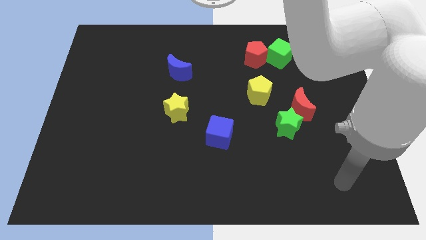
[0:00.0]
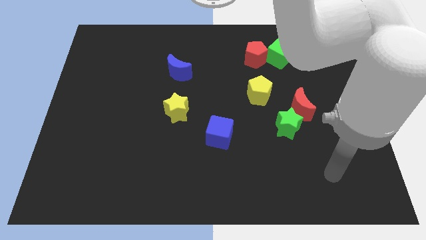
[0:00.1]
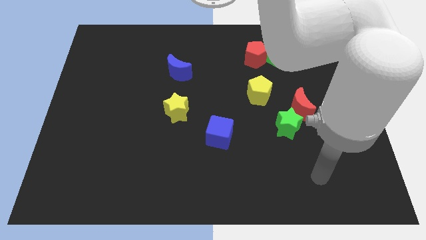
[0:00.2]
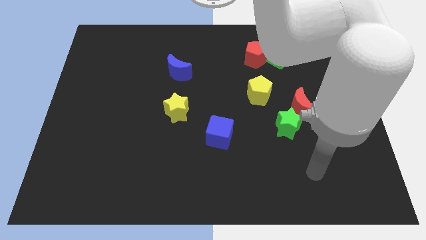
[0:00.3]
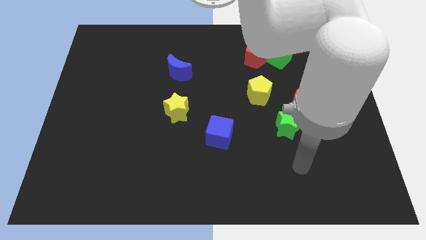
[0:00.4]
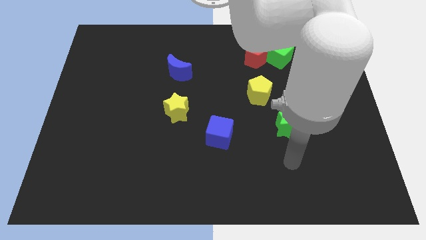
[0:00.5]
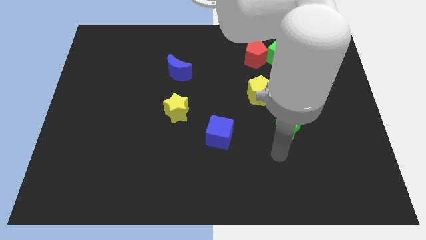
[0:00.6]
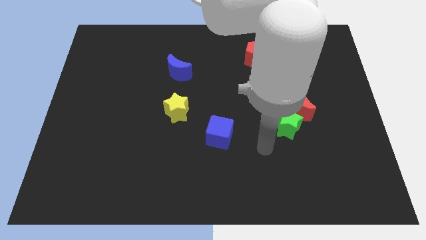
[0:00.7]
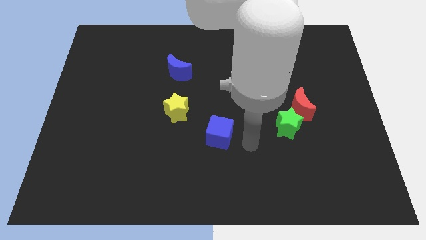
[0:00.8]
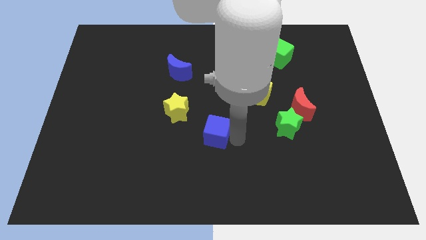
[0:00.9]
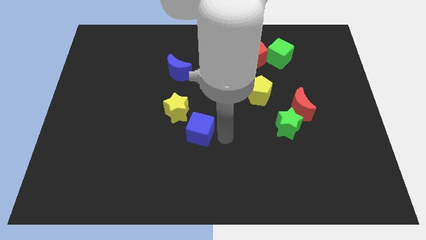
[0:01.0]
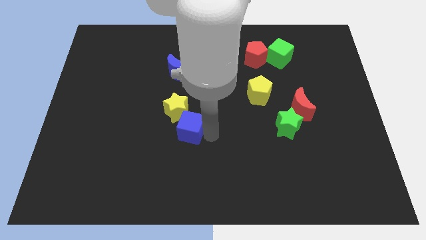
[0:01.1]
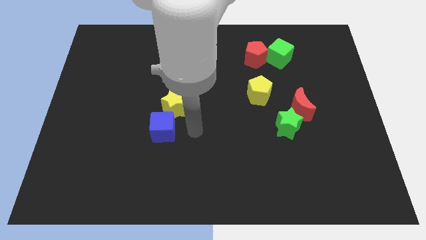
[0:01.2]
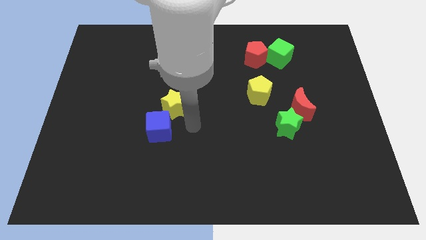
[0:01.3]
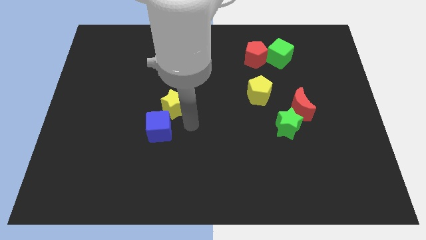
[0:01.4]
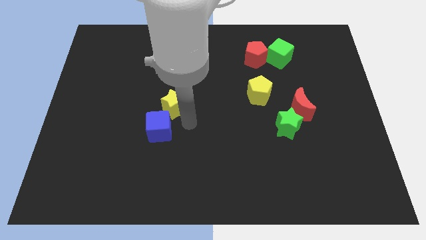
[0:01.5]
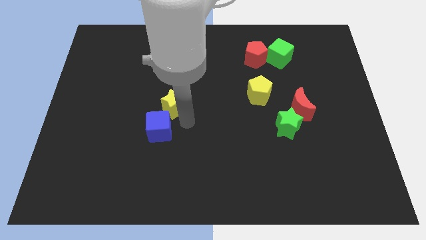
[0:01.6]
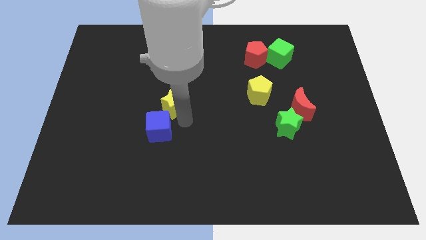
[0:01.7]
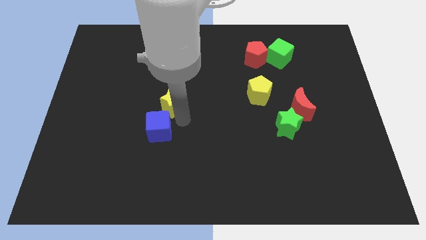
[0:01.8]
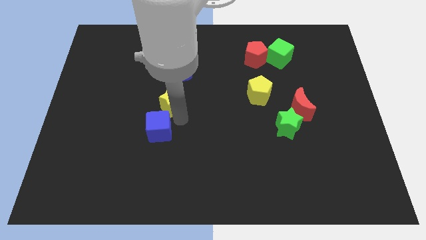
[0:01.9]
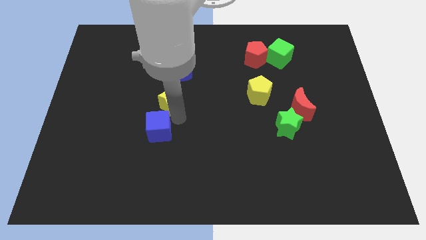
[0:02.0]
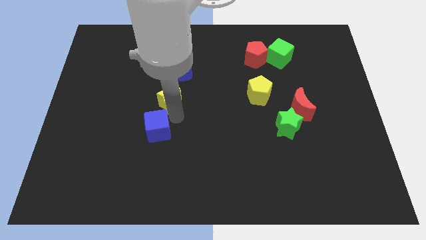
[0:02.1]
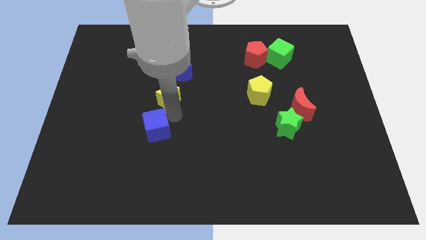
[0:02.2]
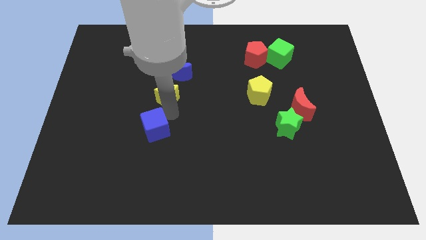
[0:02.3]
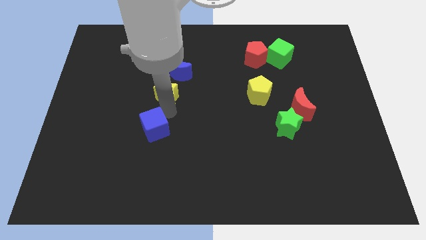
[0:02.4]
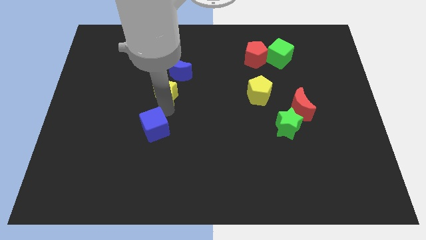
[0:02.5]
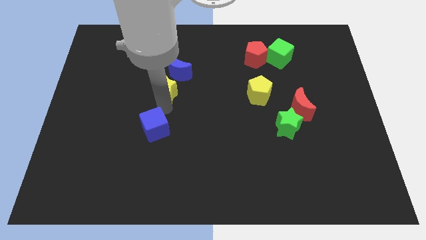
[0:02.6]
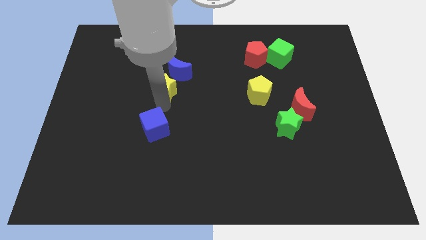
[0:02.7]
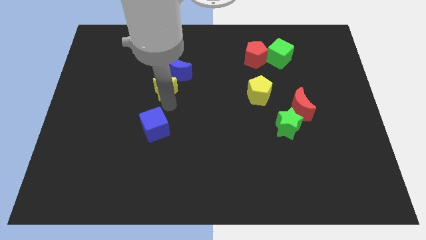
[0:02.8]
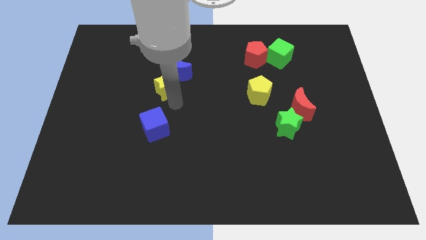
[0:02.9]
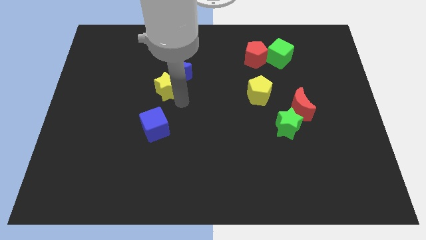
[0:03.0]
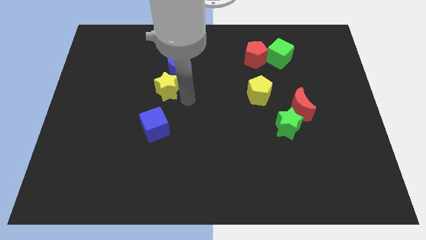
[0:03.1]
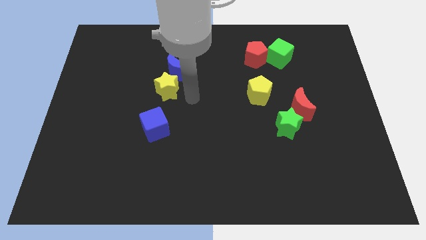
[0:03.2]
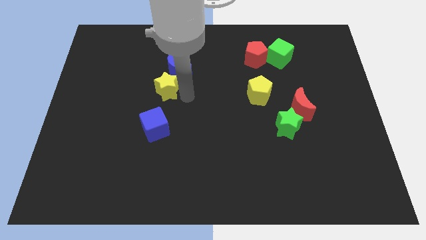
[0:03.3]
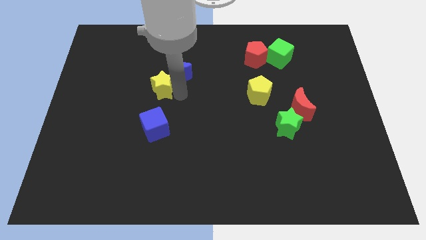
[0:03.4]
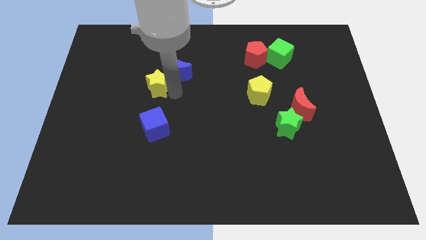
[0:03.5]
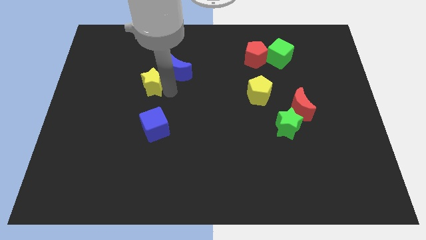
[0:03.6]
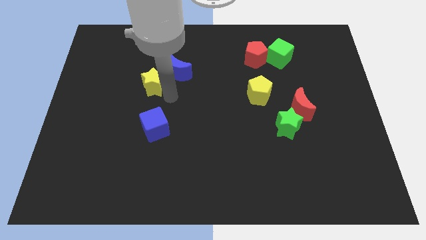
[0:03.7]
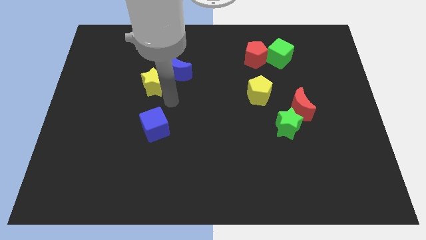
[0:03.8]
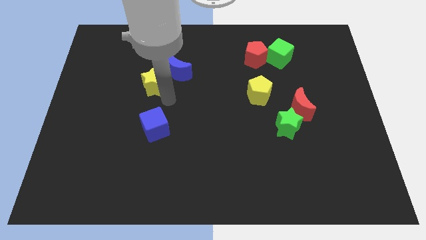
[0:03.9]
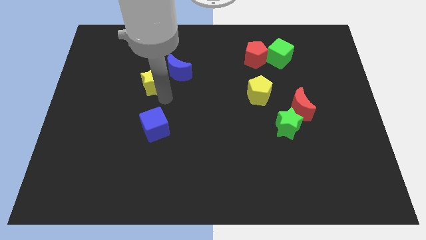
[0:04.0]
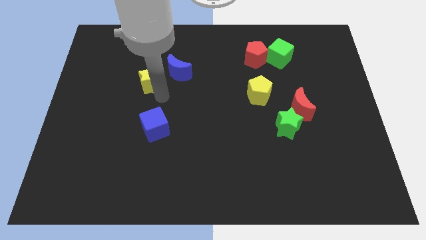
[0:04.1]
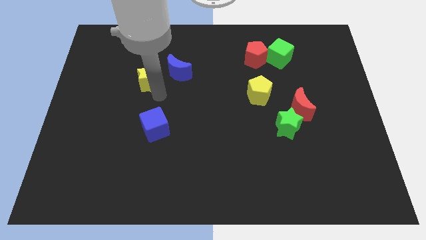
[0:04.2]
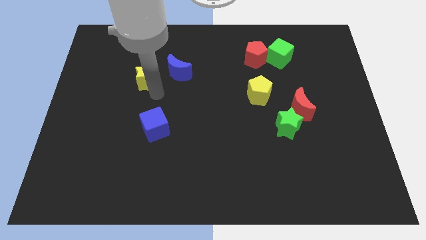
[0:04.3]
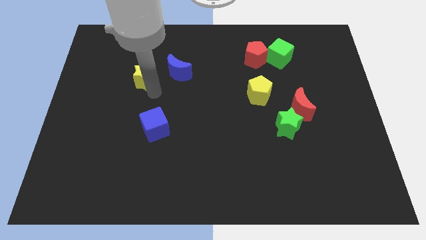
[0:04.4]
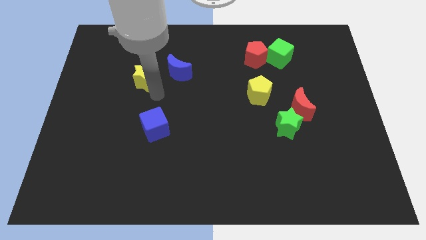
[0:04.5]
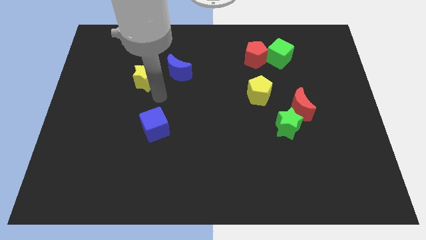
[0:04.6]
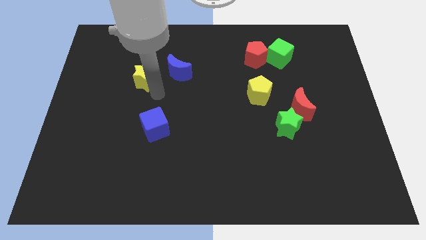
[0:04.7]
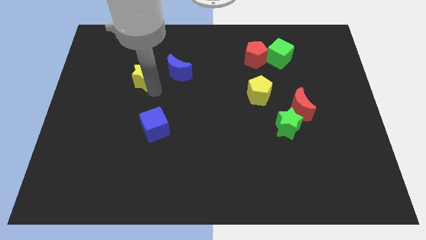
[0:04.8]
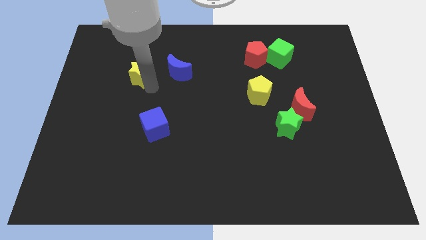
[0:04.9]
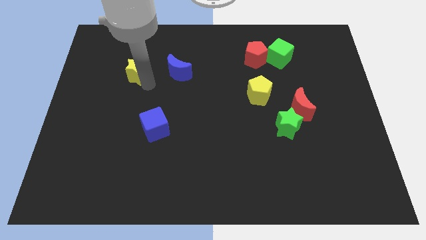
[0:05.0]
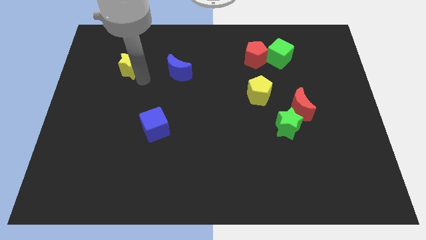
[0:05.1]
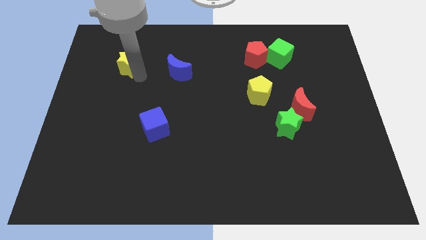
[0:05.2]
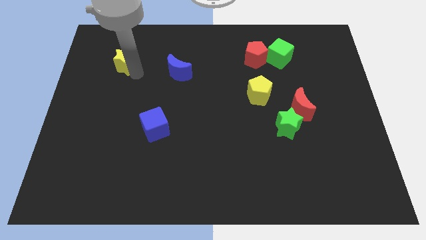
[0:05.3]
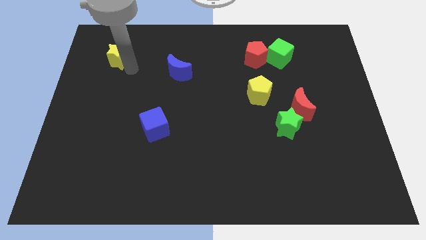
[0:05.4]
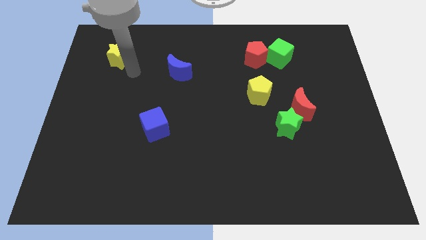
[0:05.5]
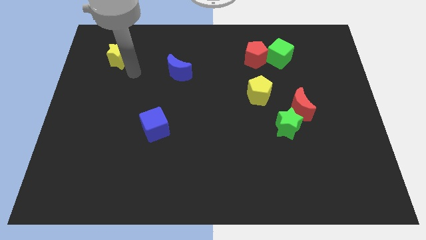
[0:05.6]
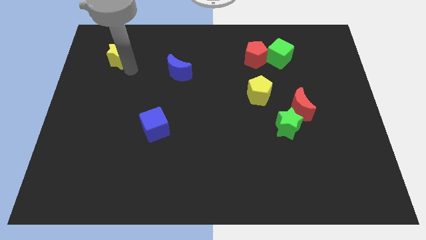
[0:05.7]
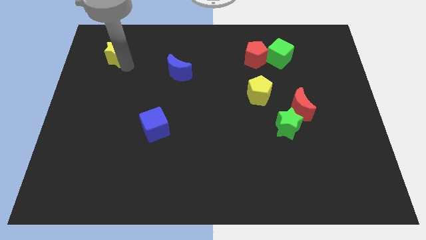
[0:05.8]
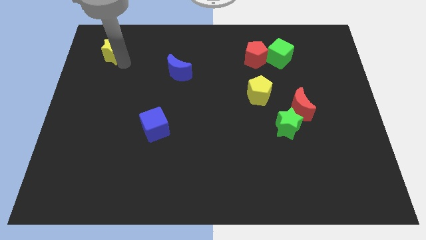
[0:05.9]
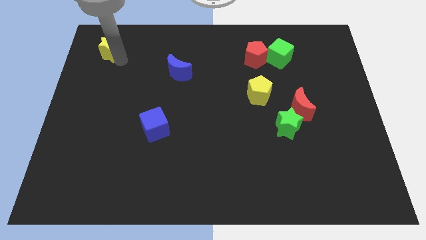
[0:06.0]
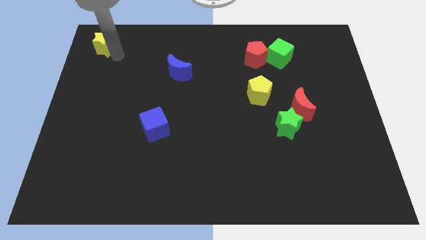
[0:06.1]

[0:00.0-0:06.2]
slide the yellow star to the upper left corner

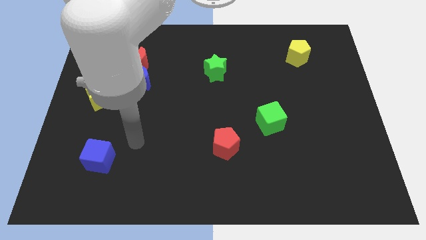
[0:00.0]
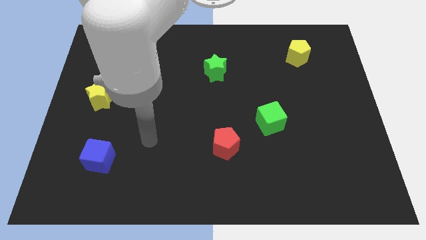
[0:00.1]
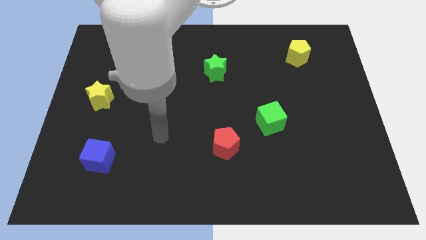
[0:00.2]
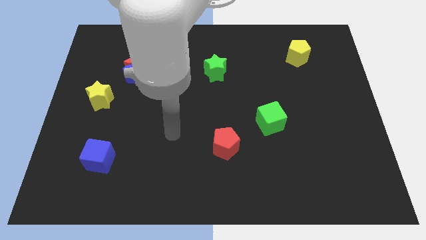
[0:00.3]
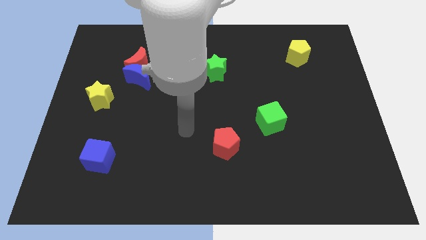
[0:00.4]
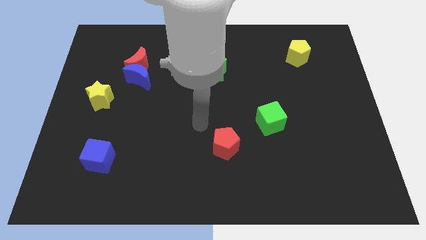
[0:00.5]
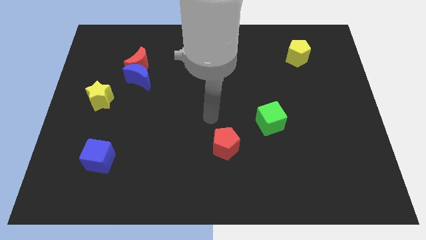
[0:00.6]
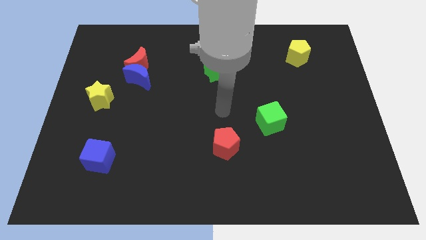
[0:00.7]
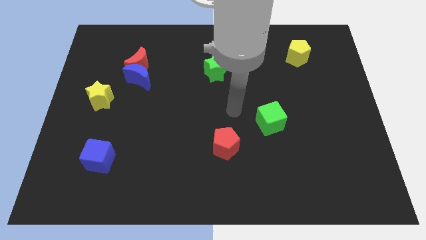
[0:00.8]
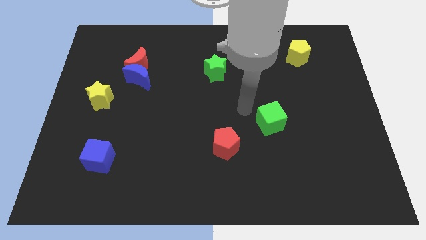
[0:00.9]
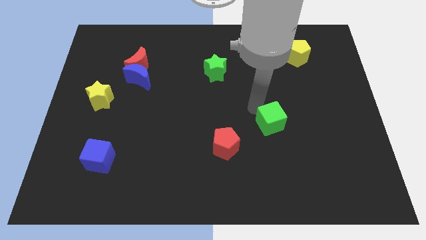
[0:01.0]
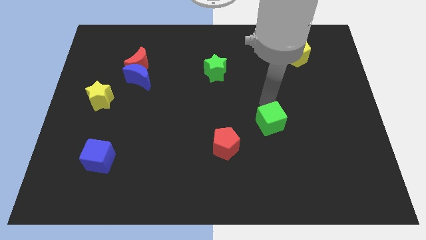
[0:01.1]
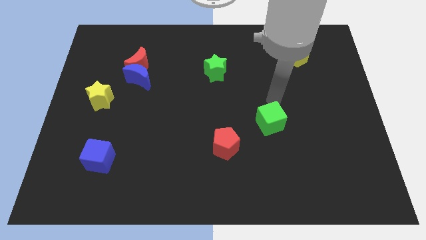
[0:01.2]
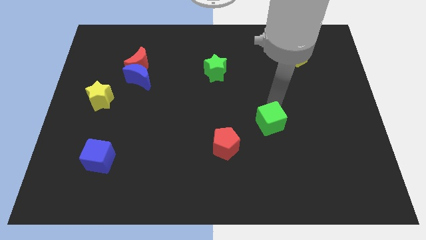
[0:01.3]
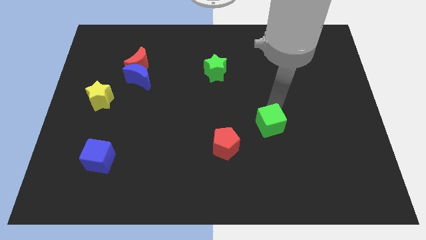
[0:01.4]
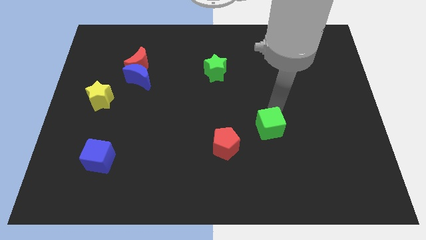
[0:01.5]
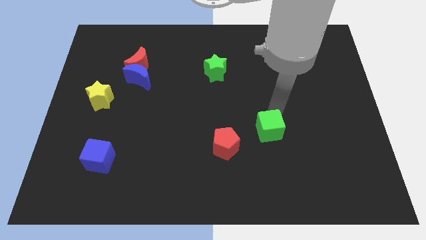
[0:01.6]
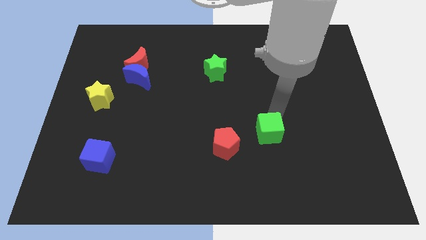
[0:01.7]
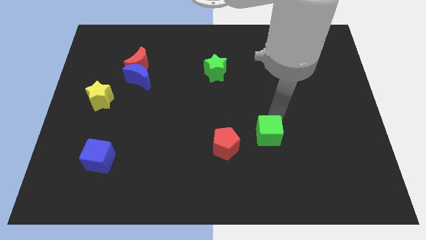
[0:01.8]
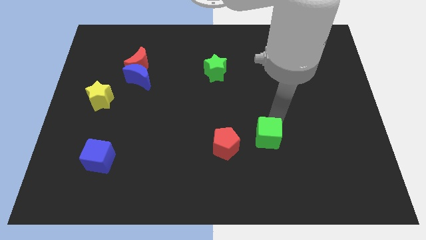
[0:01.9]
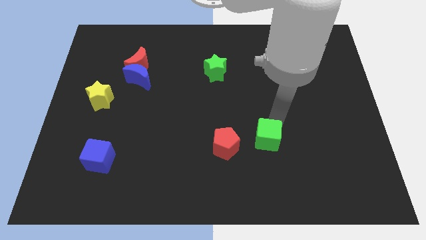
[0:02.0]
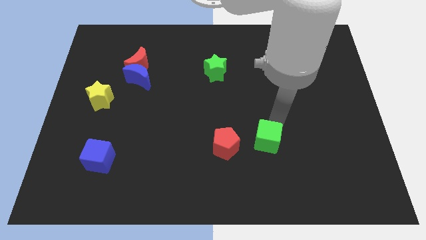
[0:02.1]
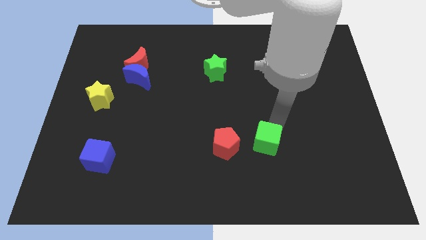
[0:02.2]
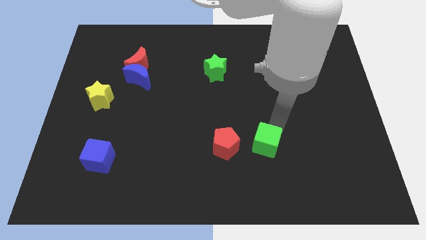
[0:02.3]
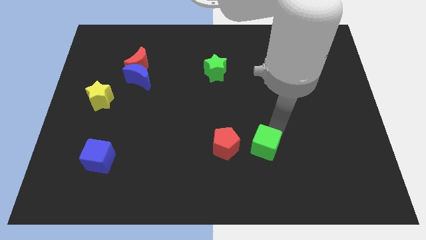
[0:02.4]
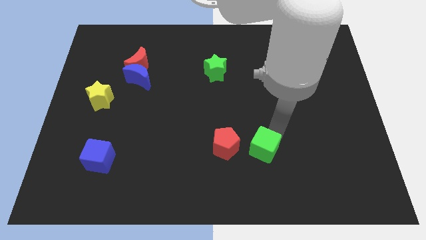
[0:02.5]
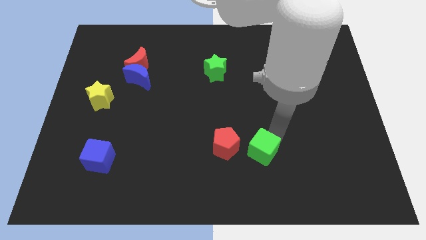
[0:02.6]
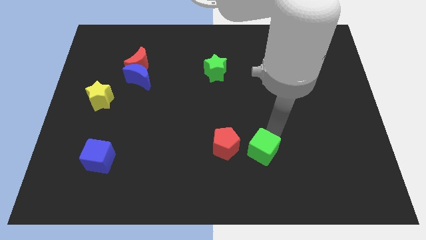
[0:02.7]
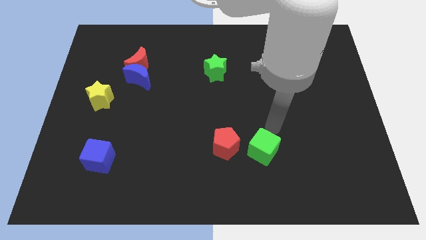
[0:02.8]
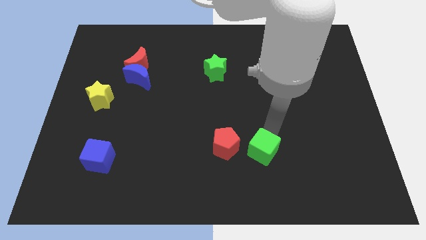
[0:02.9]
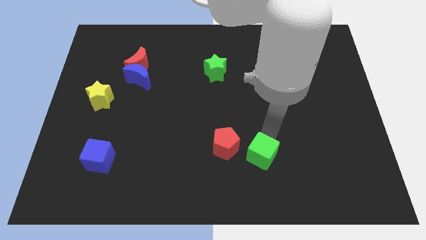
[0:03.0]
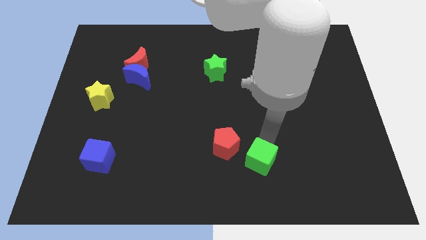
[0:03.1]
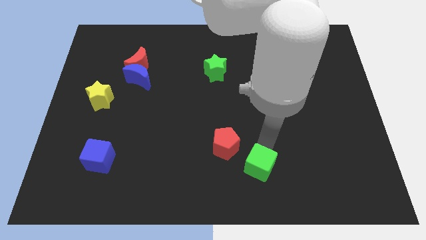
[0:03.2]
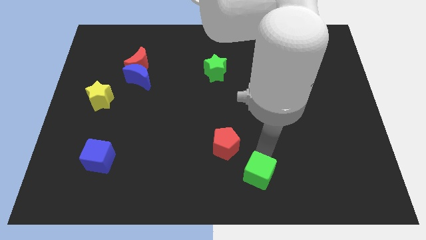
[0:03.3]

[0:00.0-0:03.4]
move the green cube to the bottom side
